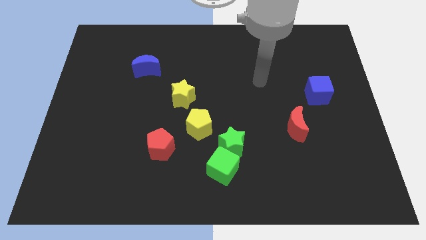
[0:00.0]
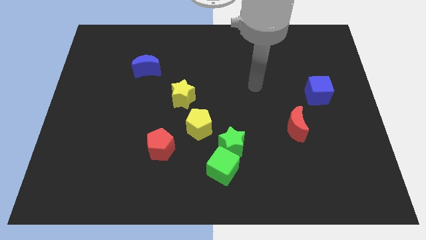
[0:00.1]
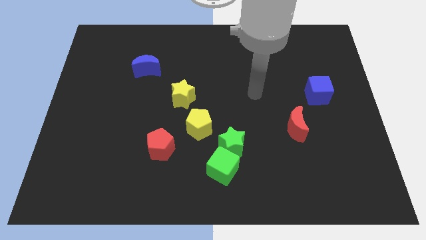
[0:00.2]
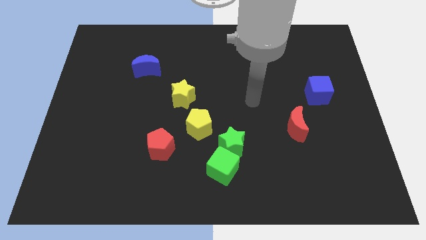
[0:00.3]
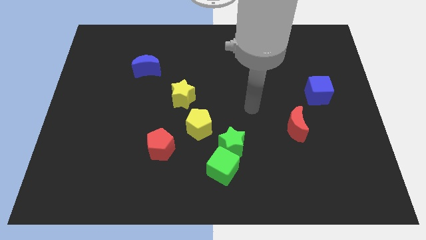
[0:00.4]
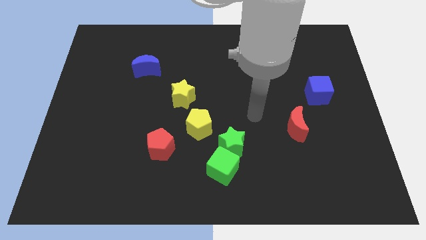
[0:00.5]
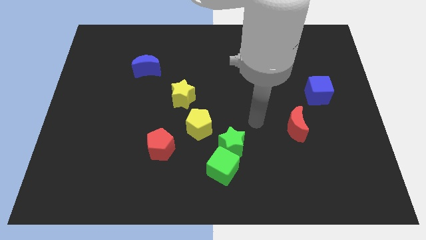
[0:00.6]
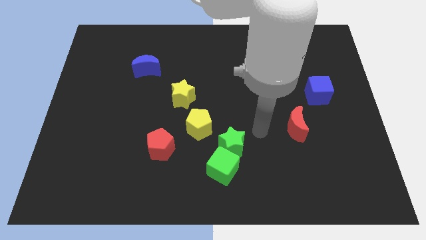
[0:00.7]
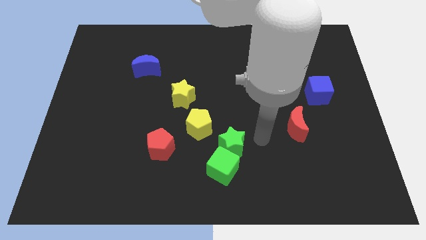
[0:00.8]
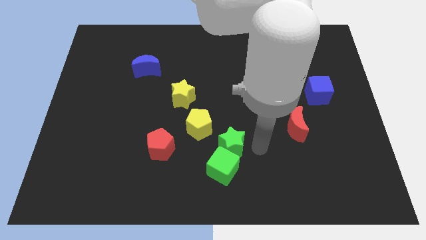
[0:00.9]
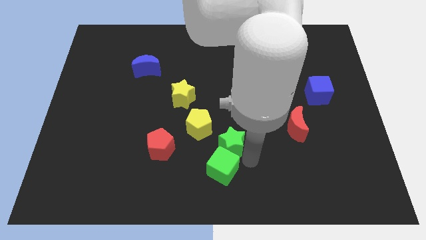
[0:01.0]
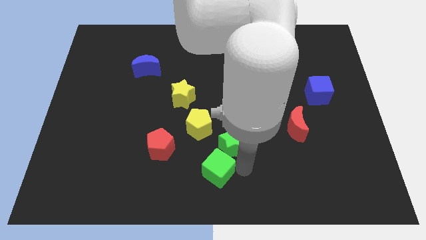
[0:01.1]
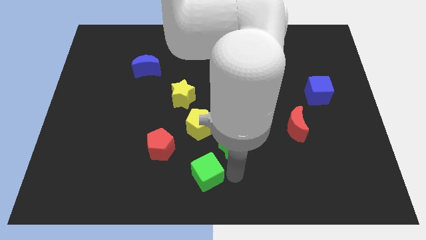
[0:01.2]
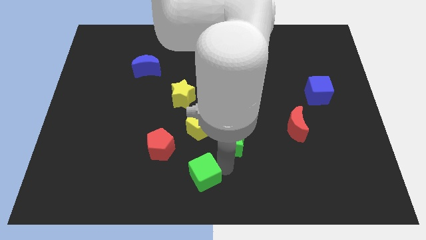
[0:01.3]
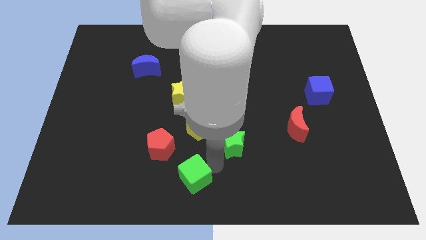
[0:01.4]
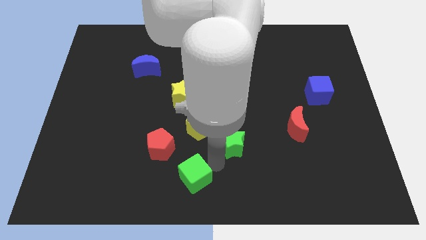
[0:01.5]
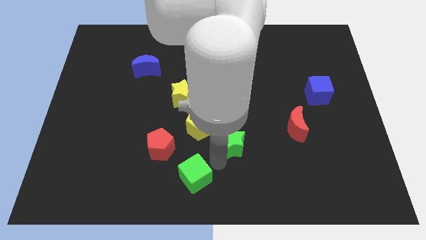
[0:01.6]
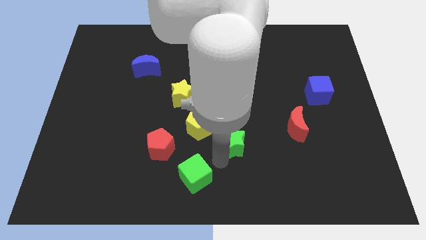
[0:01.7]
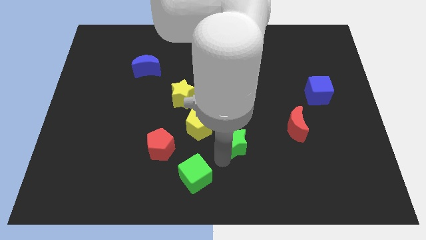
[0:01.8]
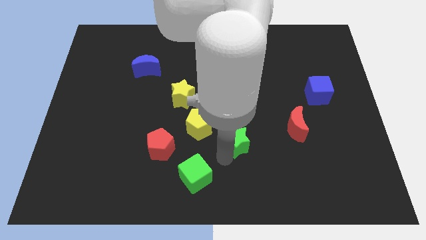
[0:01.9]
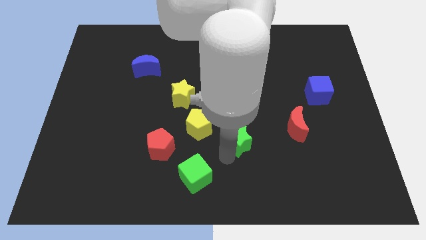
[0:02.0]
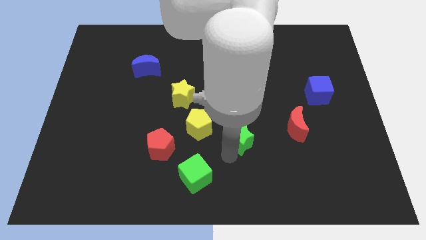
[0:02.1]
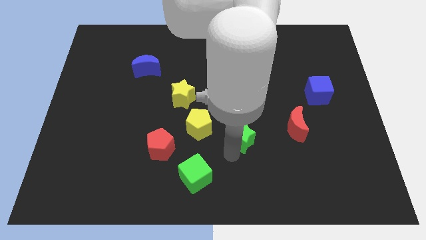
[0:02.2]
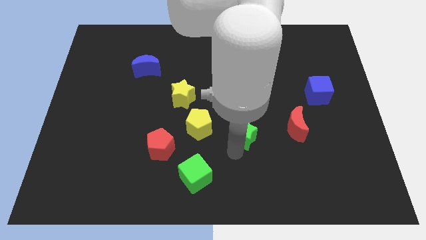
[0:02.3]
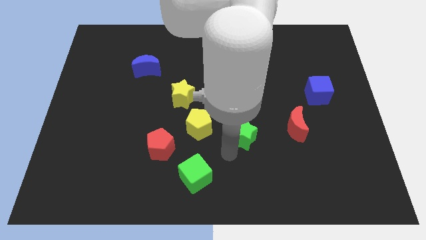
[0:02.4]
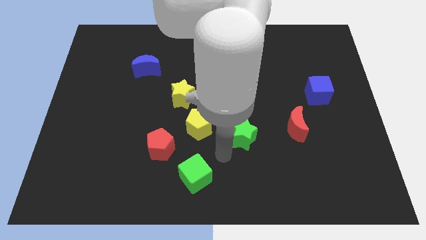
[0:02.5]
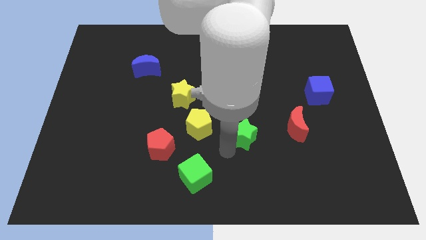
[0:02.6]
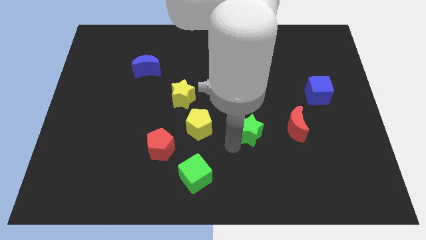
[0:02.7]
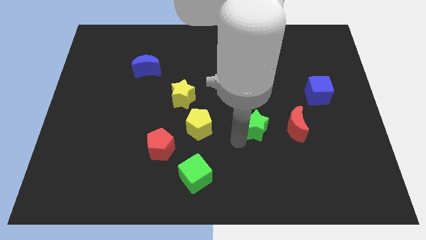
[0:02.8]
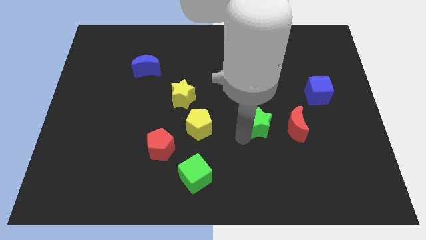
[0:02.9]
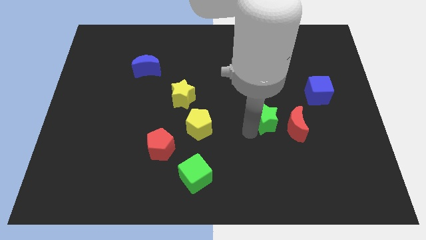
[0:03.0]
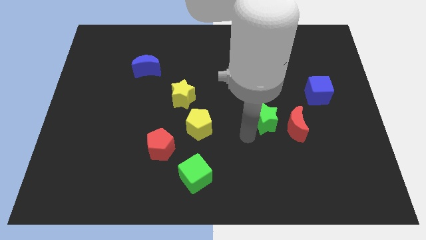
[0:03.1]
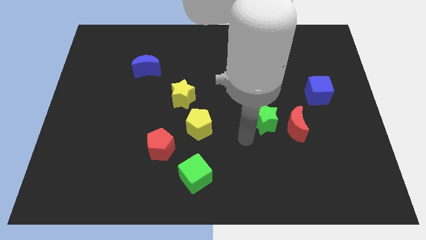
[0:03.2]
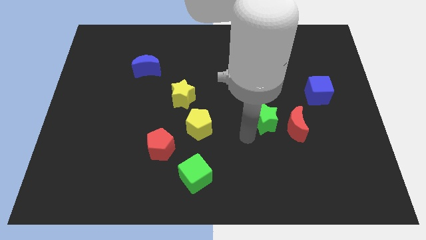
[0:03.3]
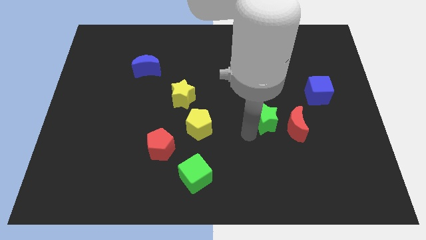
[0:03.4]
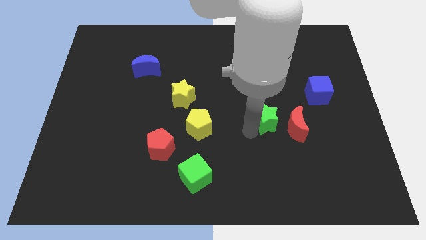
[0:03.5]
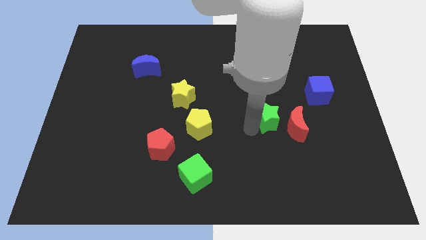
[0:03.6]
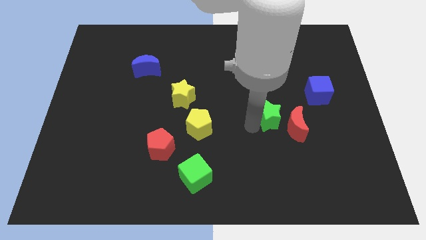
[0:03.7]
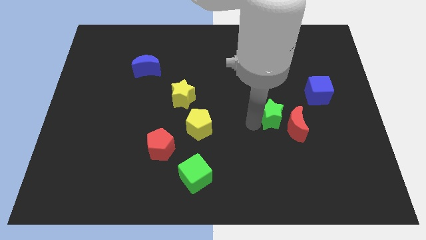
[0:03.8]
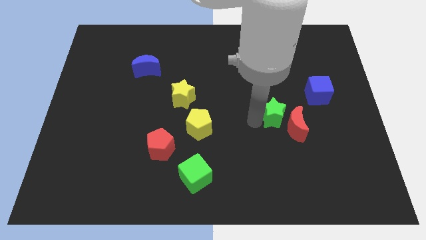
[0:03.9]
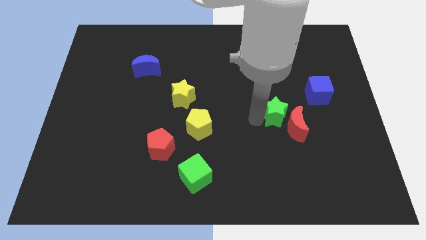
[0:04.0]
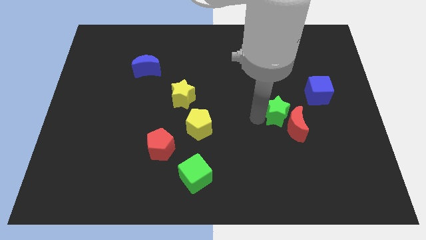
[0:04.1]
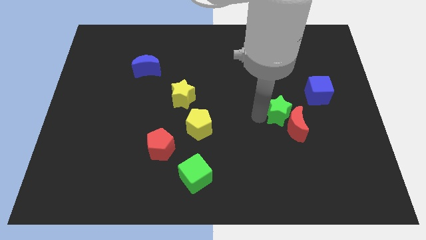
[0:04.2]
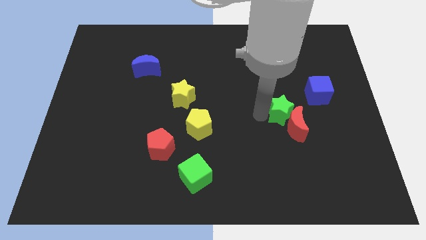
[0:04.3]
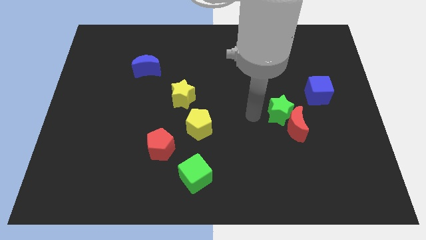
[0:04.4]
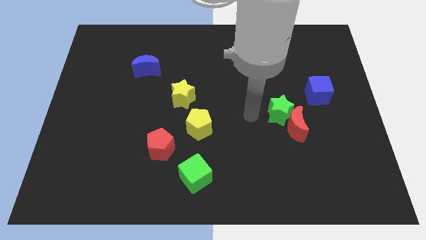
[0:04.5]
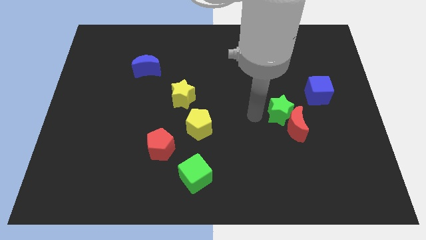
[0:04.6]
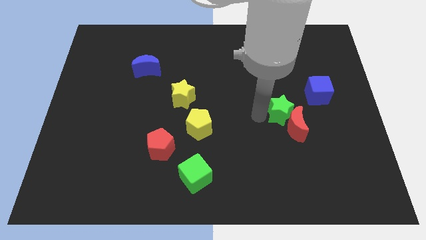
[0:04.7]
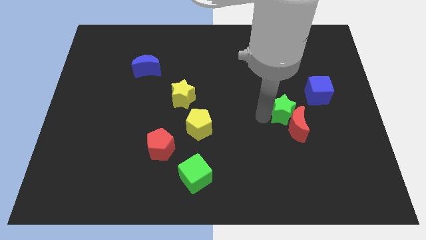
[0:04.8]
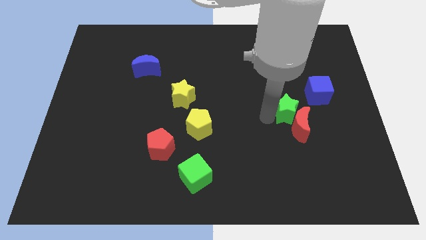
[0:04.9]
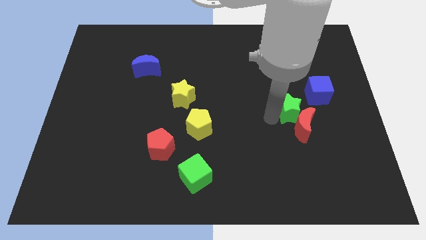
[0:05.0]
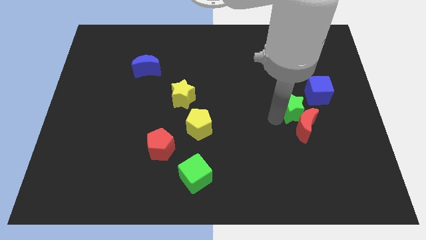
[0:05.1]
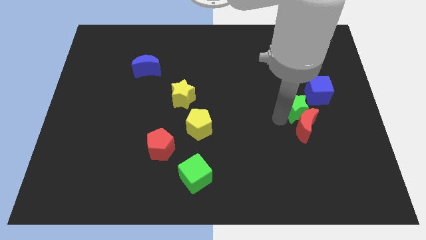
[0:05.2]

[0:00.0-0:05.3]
move the green star diagonally up and to the right of the red moon

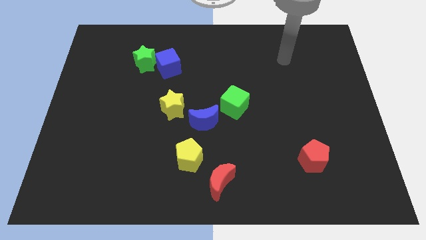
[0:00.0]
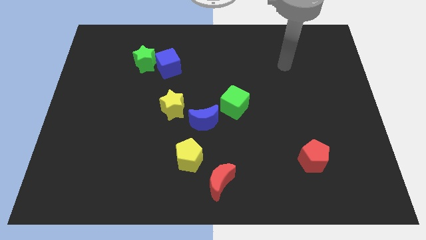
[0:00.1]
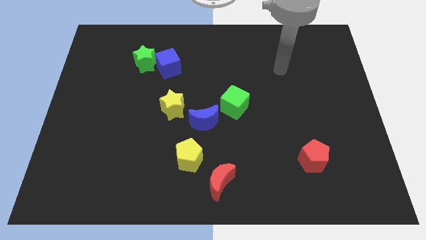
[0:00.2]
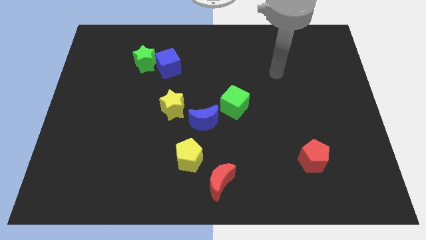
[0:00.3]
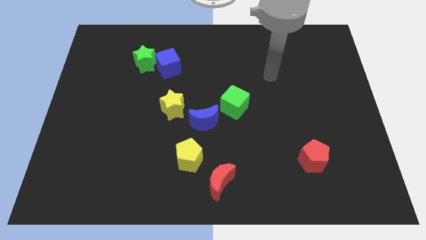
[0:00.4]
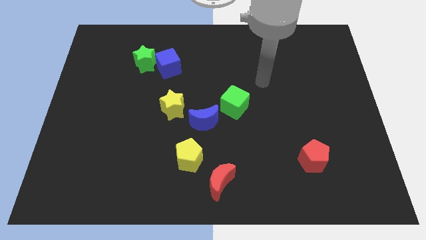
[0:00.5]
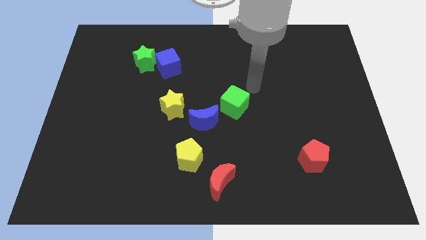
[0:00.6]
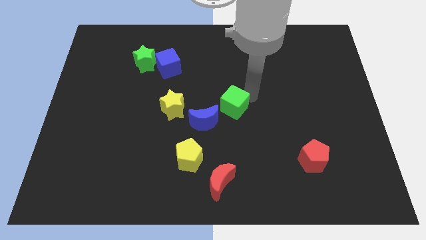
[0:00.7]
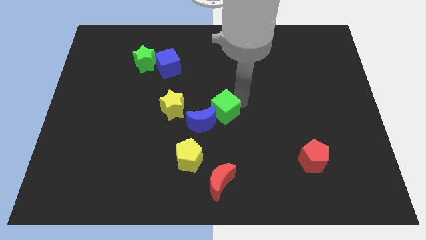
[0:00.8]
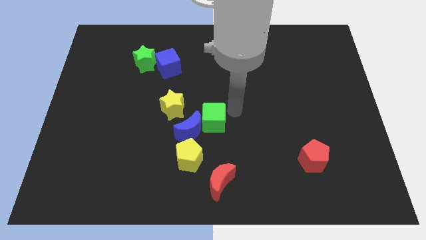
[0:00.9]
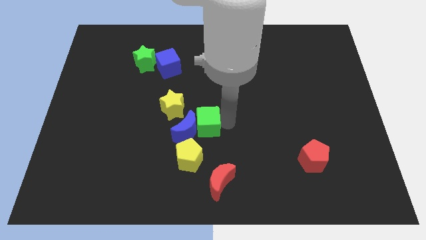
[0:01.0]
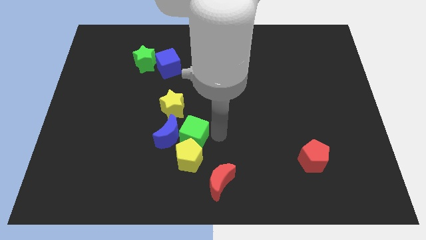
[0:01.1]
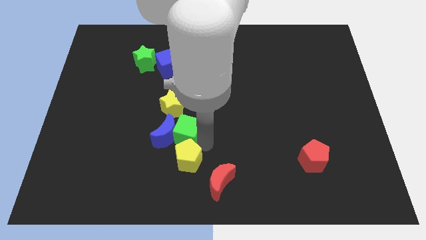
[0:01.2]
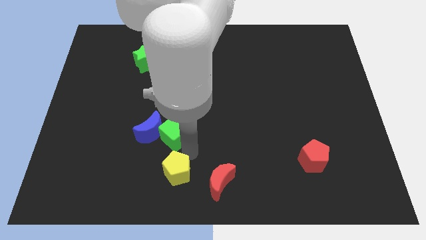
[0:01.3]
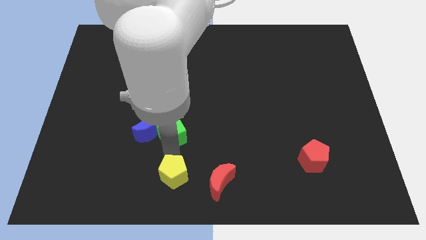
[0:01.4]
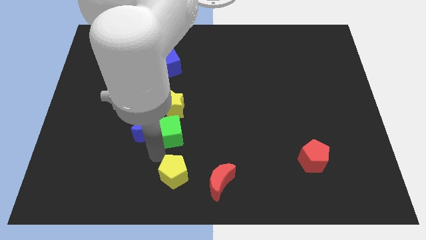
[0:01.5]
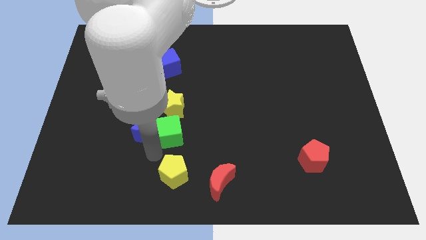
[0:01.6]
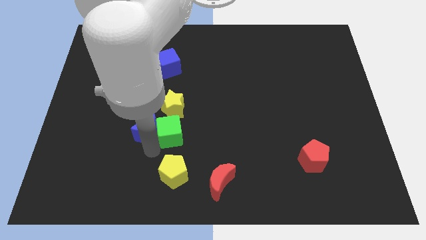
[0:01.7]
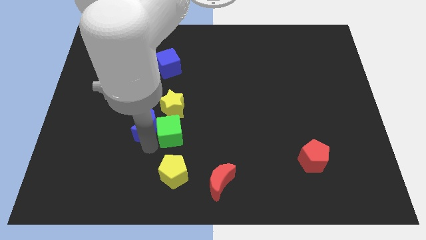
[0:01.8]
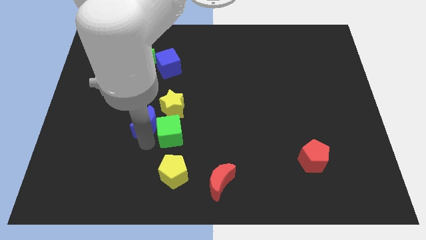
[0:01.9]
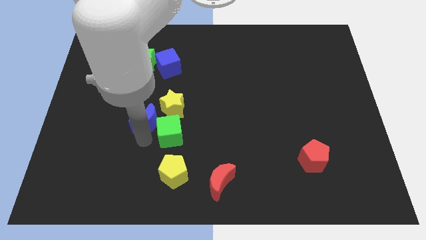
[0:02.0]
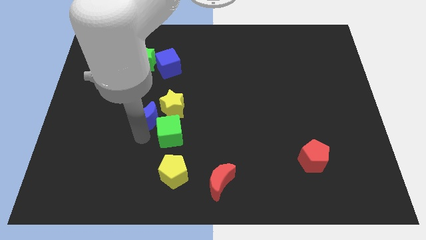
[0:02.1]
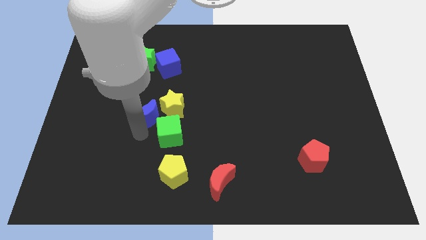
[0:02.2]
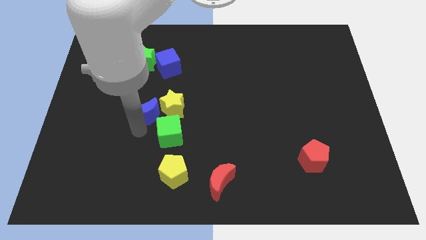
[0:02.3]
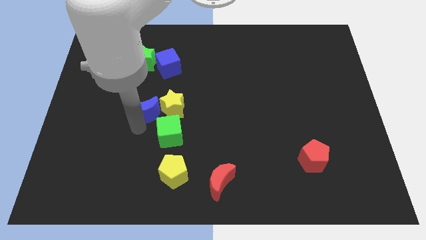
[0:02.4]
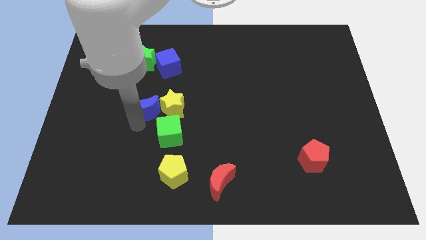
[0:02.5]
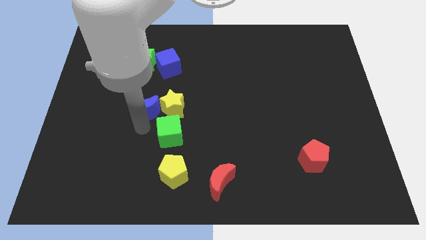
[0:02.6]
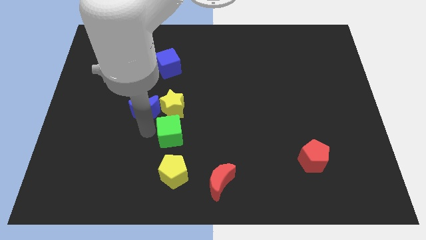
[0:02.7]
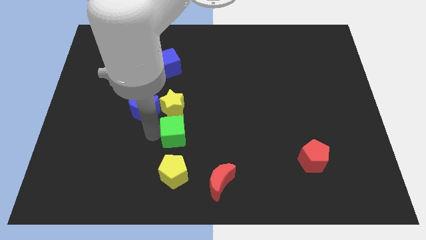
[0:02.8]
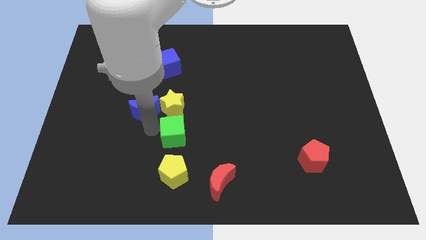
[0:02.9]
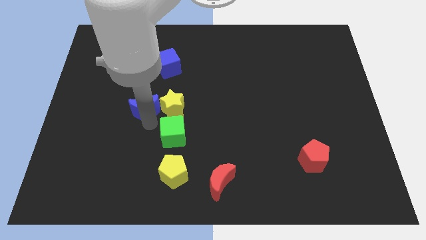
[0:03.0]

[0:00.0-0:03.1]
slide the blue moon to the bottom side of the green star
